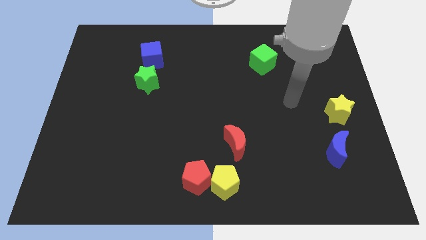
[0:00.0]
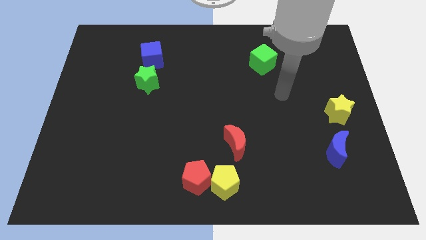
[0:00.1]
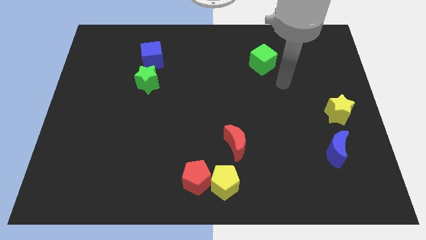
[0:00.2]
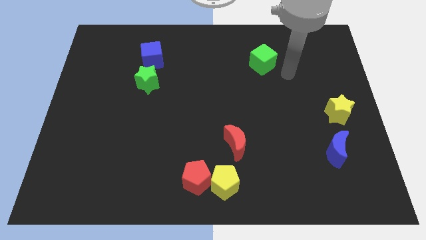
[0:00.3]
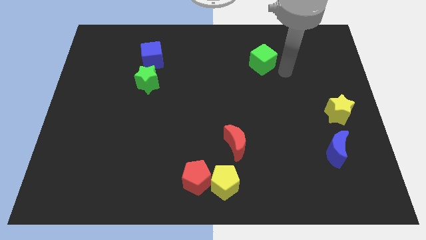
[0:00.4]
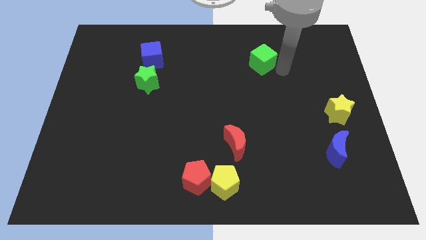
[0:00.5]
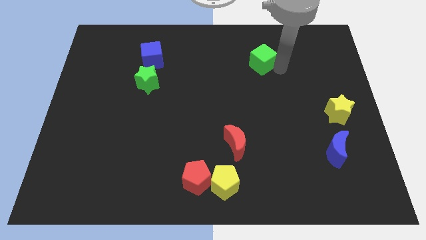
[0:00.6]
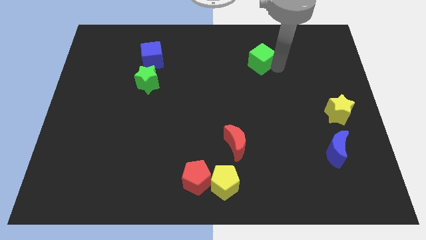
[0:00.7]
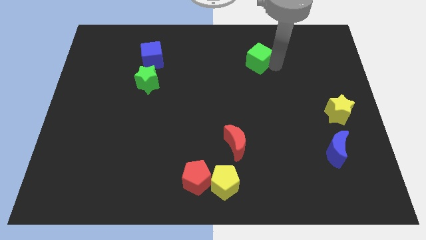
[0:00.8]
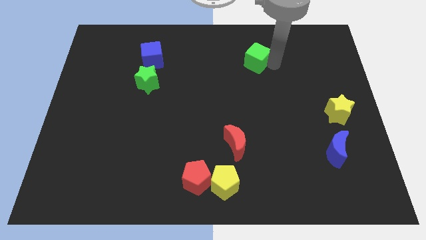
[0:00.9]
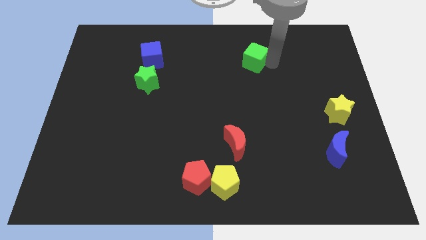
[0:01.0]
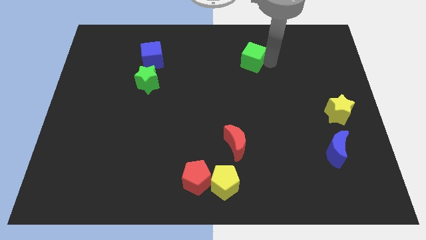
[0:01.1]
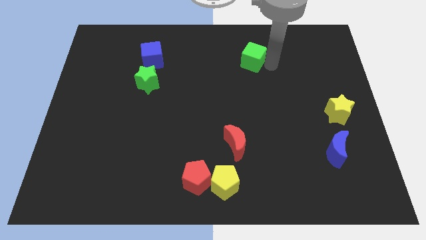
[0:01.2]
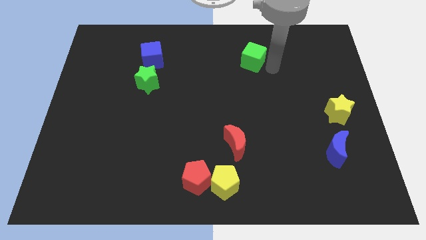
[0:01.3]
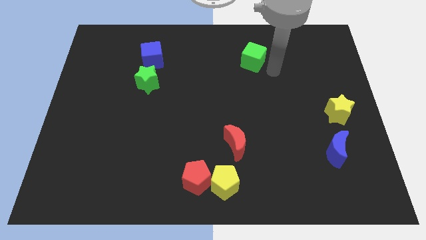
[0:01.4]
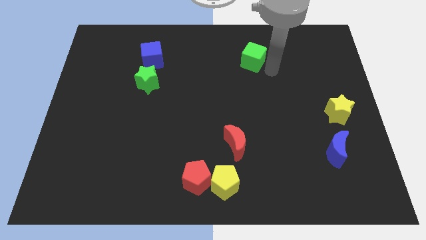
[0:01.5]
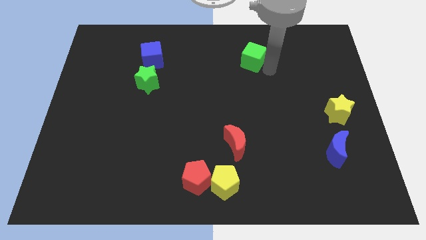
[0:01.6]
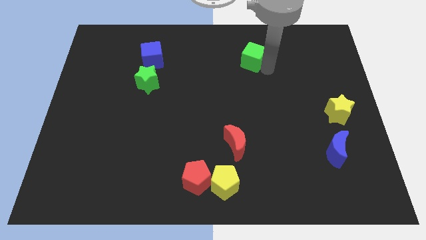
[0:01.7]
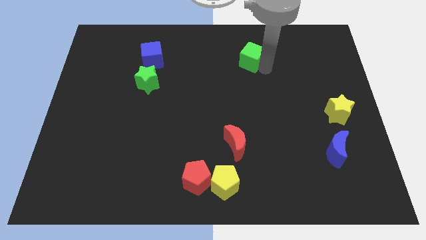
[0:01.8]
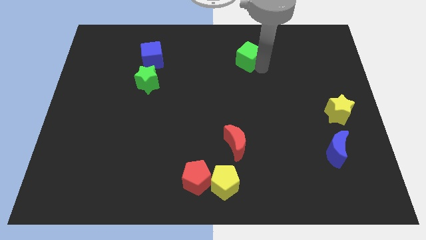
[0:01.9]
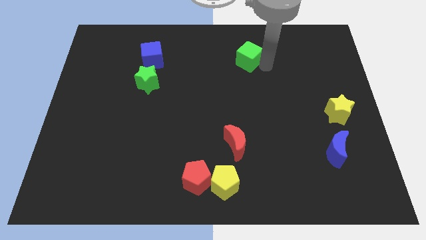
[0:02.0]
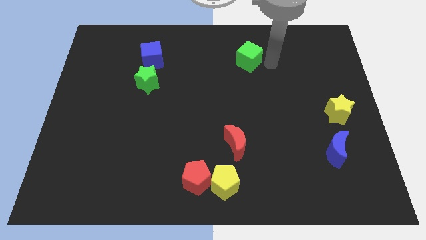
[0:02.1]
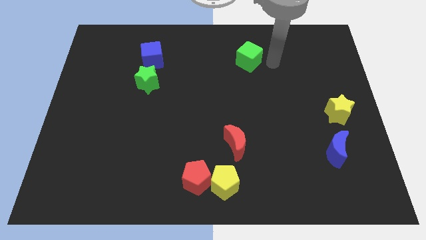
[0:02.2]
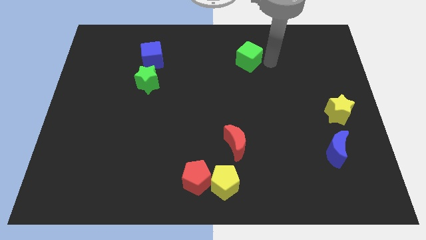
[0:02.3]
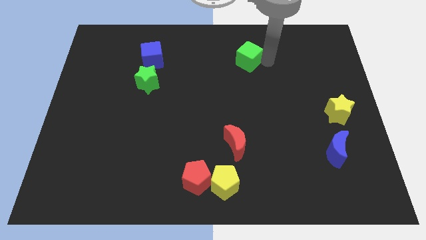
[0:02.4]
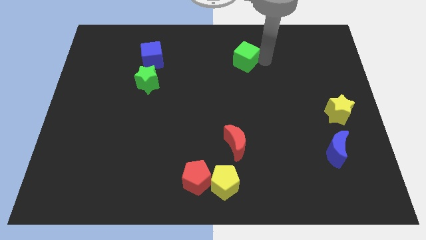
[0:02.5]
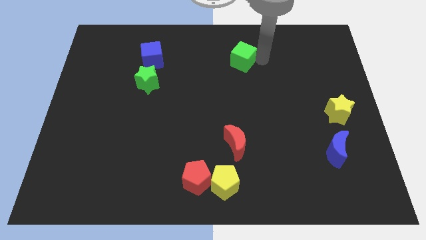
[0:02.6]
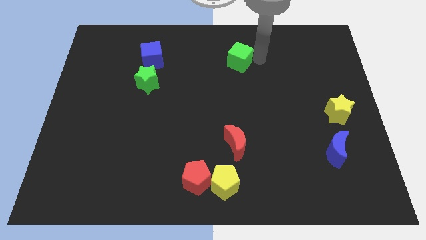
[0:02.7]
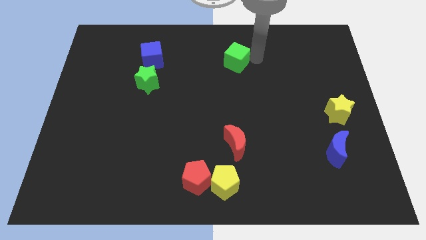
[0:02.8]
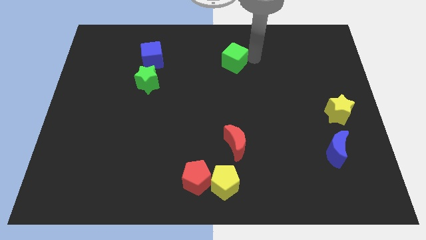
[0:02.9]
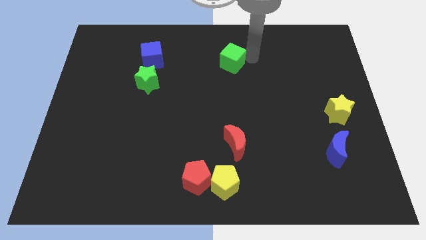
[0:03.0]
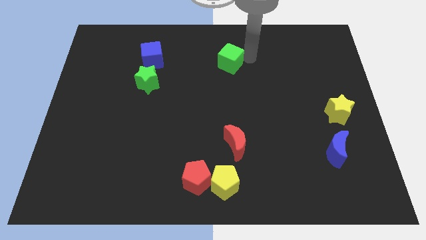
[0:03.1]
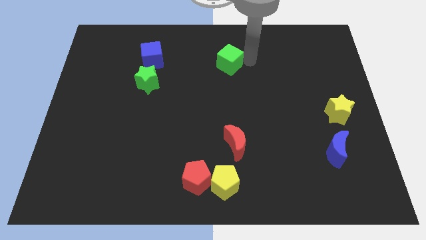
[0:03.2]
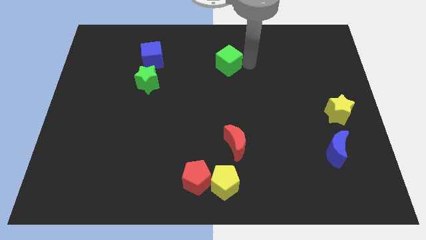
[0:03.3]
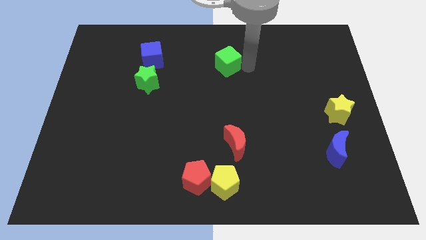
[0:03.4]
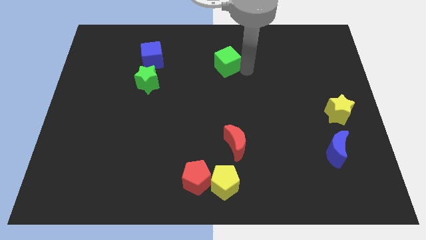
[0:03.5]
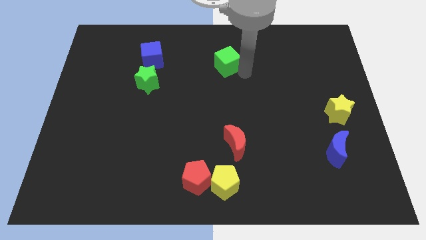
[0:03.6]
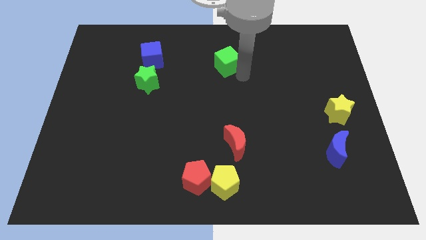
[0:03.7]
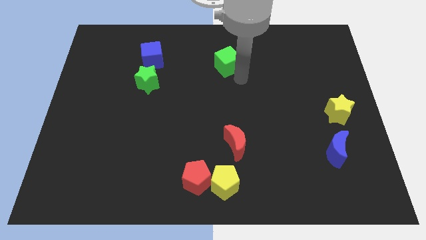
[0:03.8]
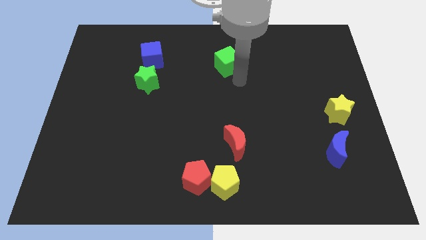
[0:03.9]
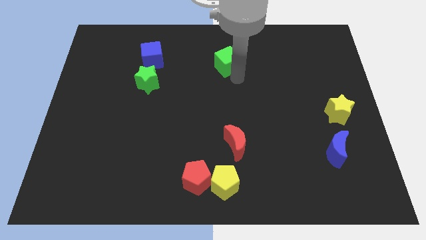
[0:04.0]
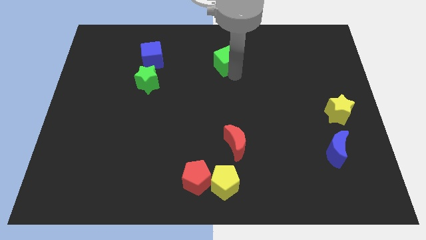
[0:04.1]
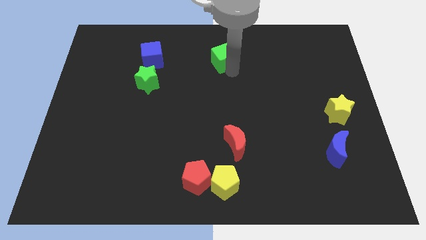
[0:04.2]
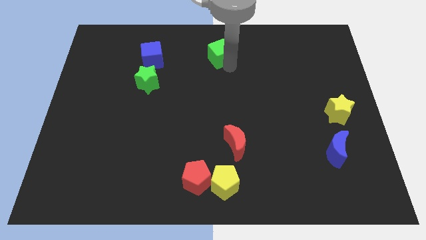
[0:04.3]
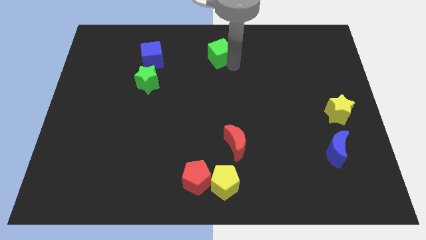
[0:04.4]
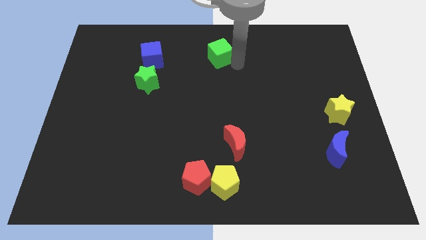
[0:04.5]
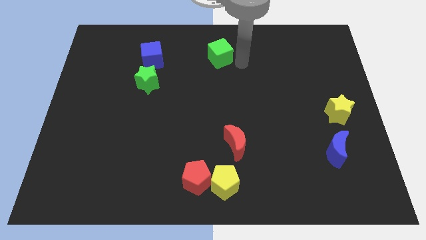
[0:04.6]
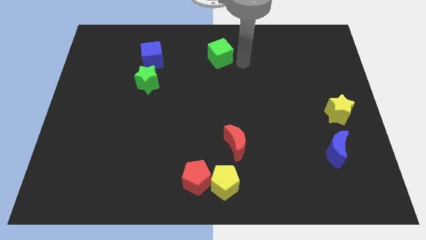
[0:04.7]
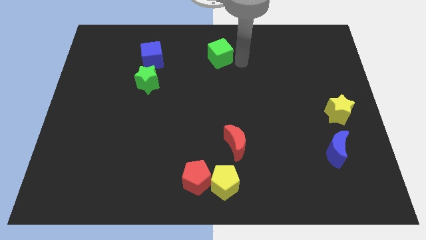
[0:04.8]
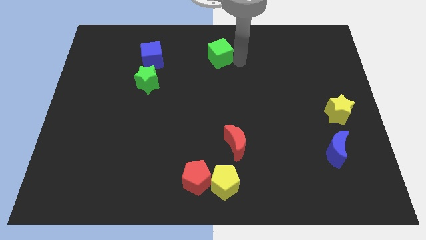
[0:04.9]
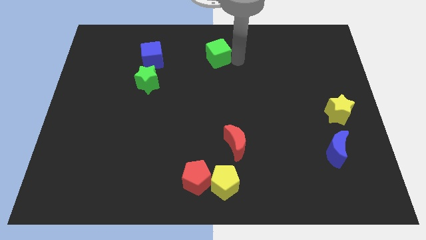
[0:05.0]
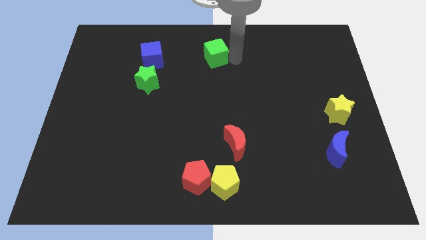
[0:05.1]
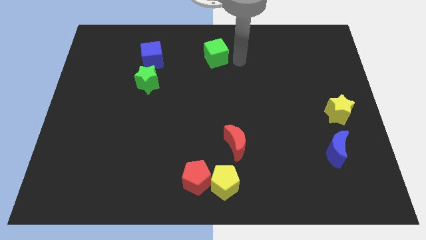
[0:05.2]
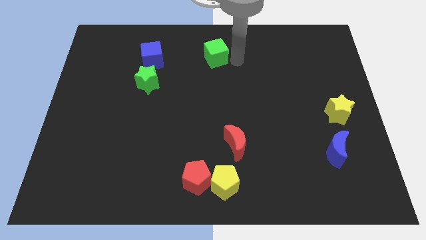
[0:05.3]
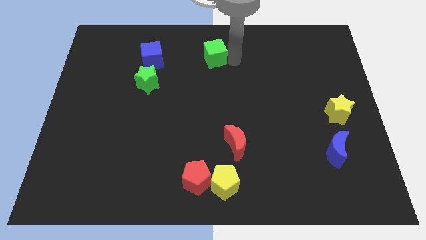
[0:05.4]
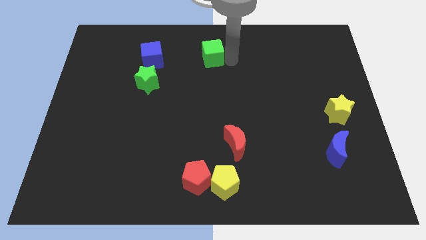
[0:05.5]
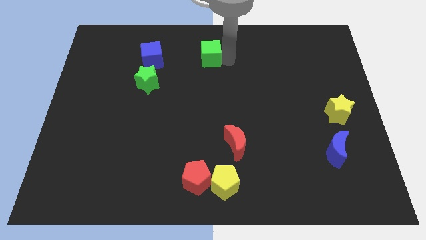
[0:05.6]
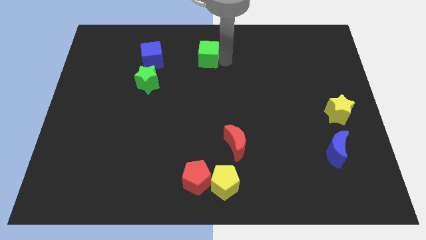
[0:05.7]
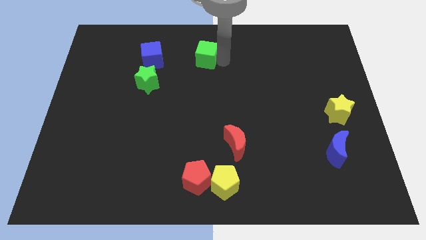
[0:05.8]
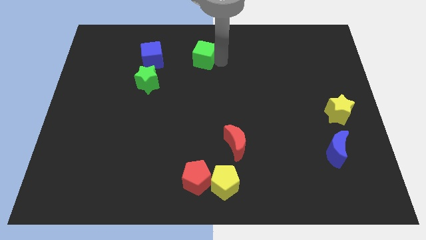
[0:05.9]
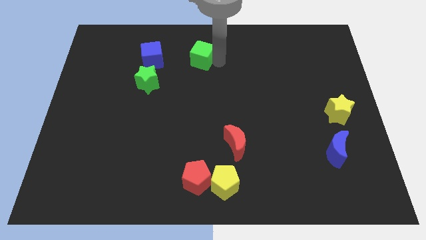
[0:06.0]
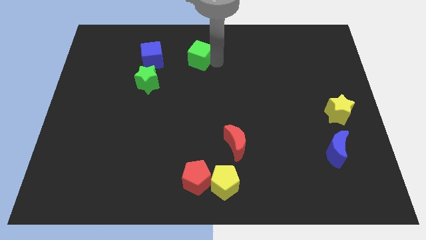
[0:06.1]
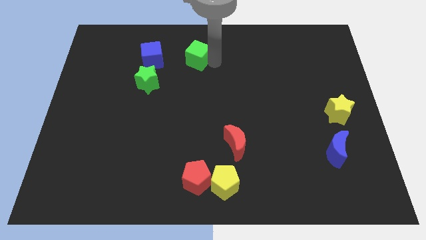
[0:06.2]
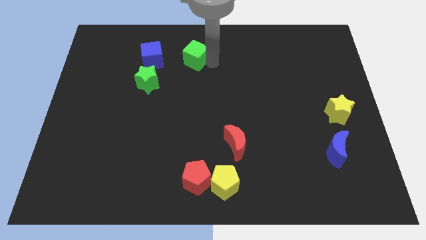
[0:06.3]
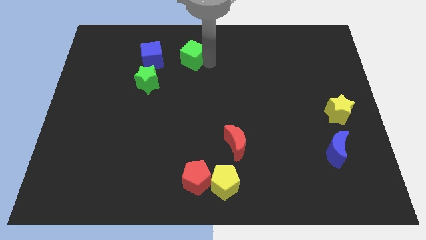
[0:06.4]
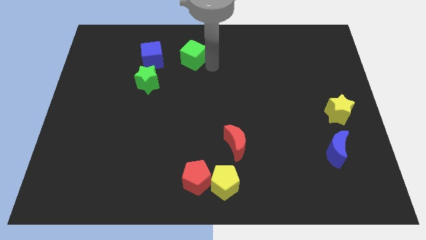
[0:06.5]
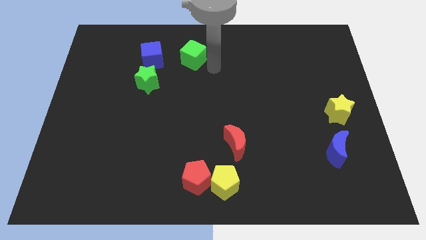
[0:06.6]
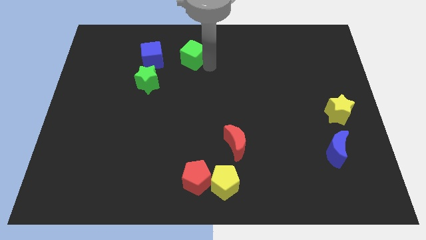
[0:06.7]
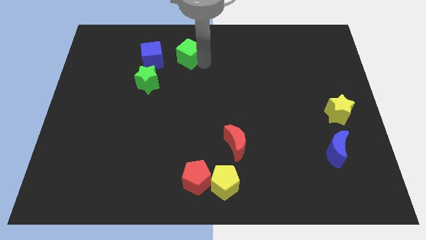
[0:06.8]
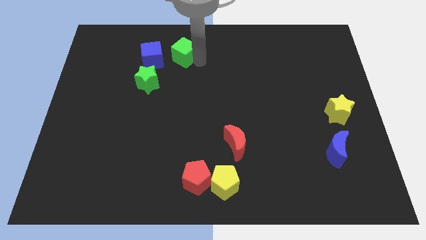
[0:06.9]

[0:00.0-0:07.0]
move the green cube to the left

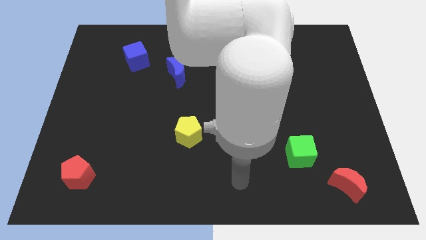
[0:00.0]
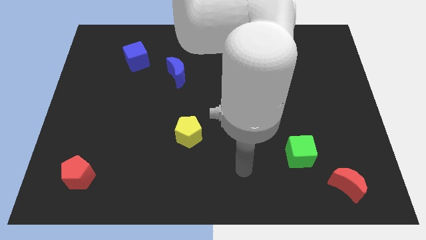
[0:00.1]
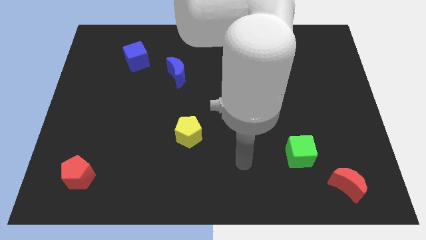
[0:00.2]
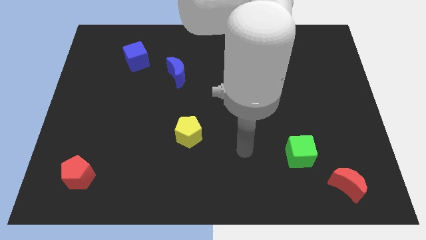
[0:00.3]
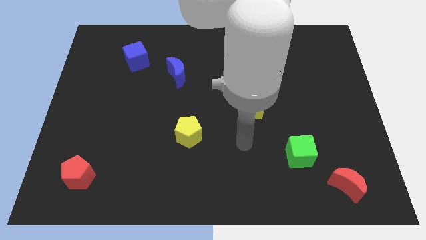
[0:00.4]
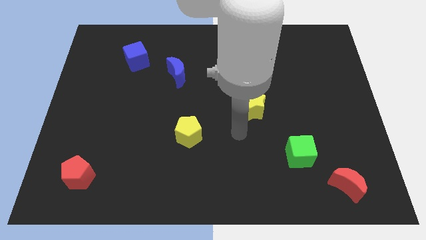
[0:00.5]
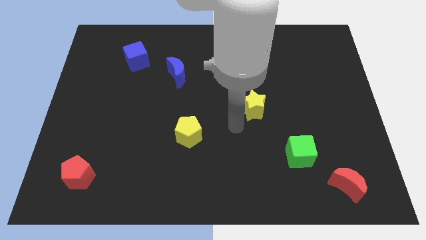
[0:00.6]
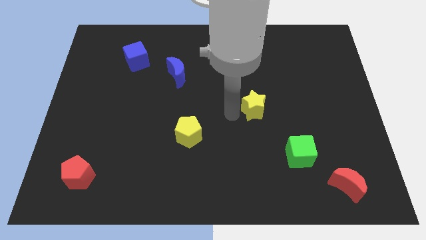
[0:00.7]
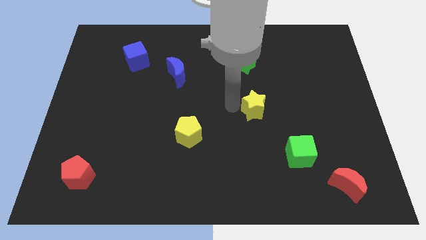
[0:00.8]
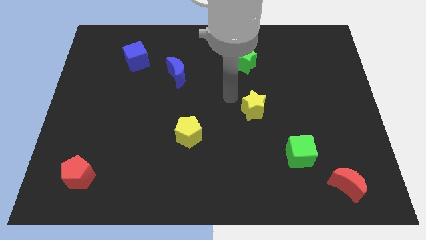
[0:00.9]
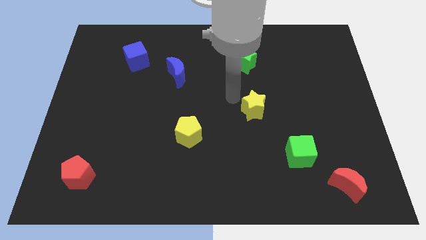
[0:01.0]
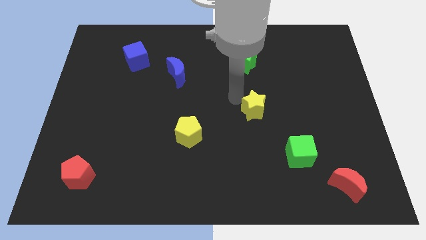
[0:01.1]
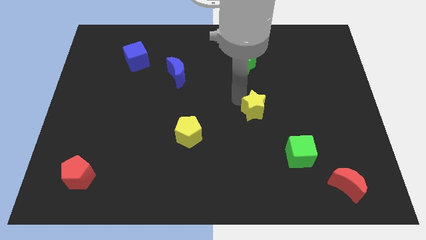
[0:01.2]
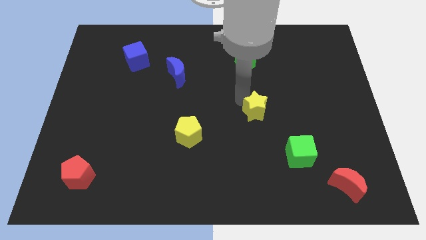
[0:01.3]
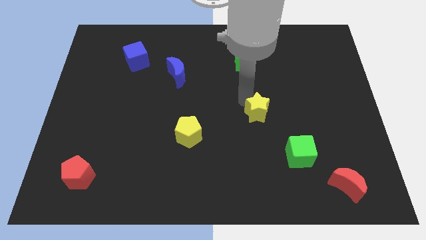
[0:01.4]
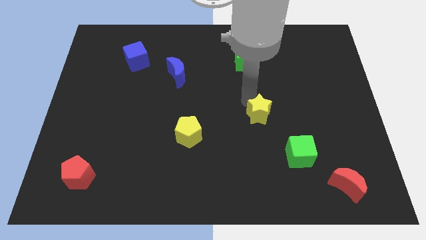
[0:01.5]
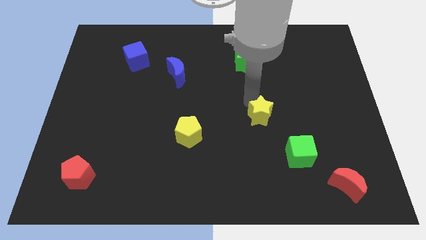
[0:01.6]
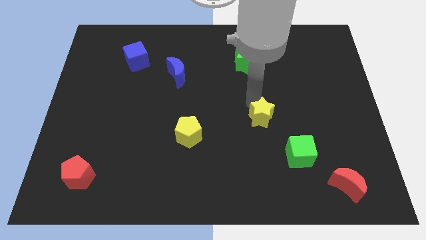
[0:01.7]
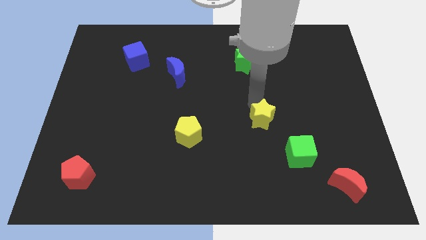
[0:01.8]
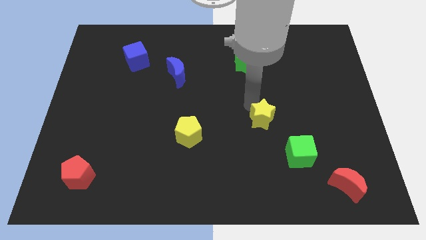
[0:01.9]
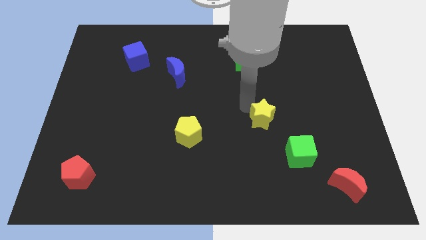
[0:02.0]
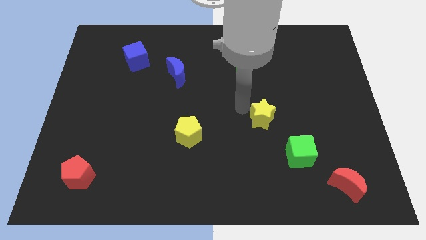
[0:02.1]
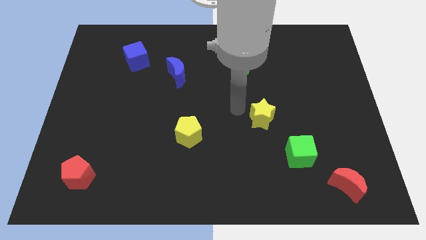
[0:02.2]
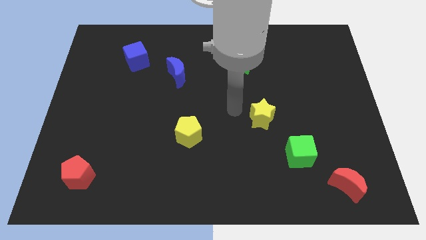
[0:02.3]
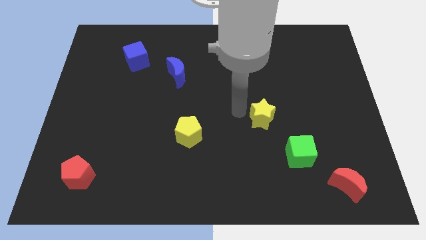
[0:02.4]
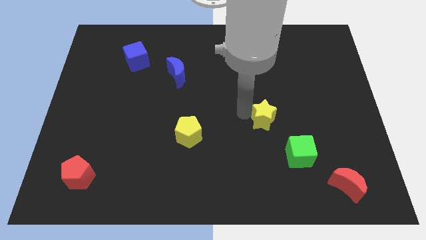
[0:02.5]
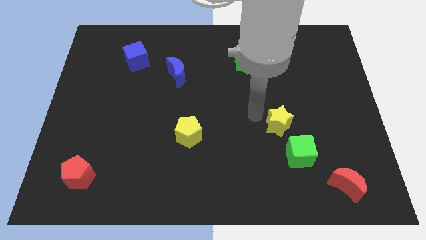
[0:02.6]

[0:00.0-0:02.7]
slightly move the yellow star down and to the right diagonally
